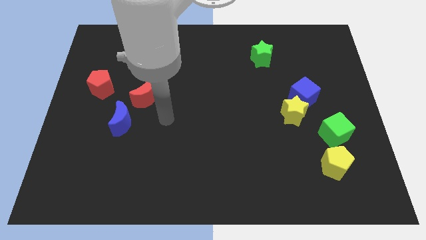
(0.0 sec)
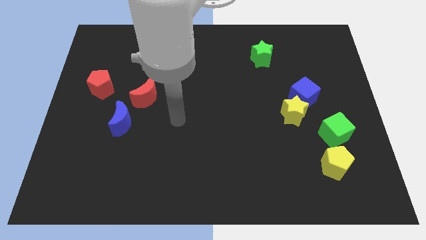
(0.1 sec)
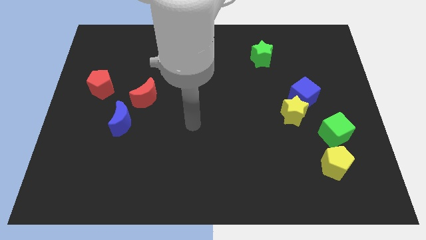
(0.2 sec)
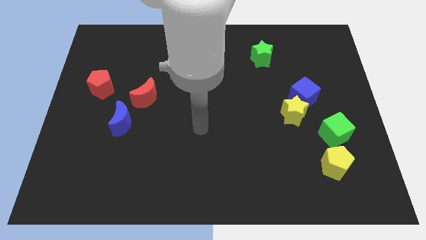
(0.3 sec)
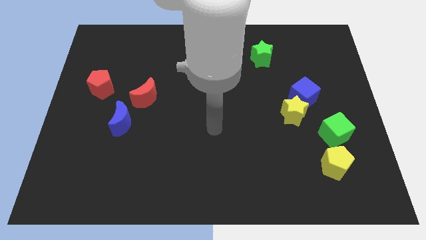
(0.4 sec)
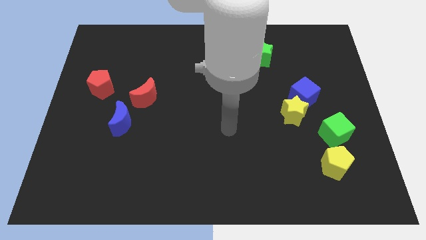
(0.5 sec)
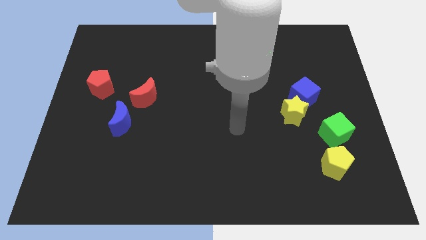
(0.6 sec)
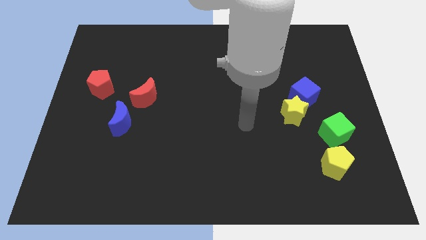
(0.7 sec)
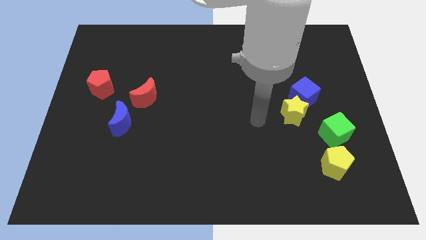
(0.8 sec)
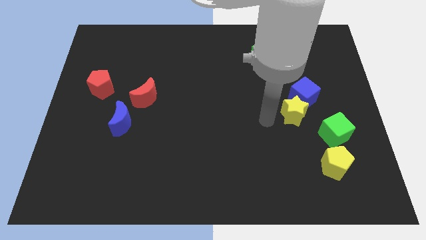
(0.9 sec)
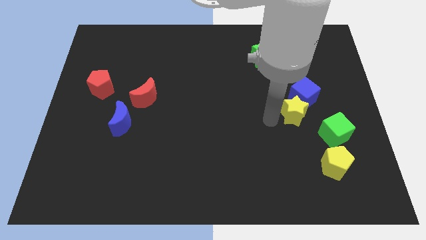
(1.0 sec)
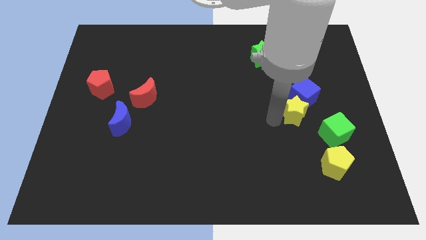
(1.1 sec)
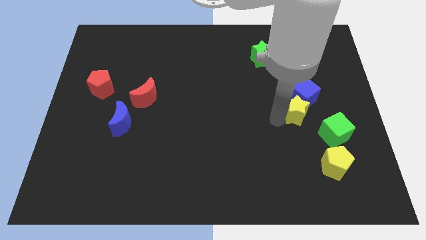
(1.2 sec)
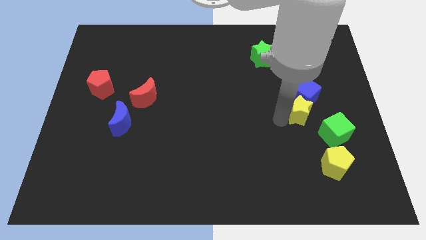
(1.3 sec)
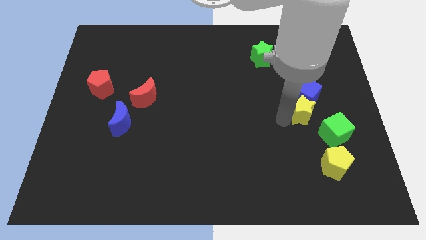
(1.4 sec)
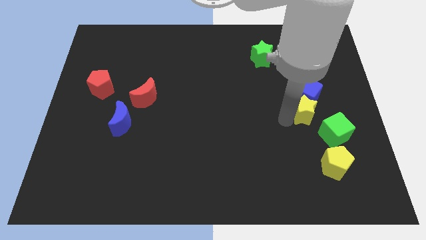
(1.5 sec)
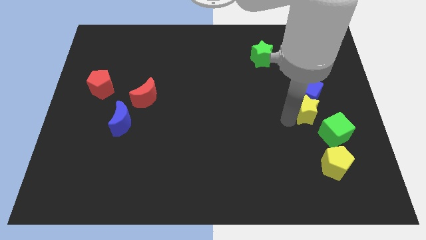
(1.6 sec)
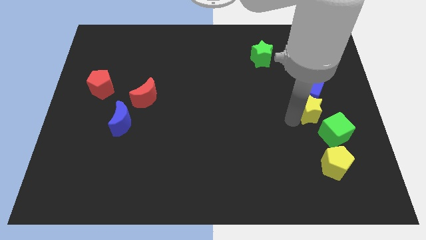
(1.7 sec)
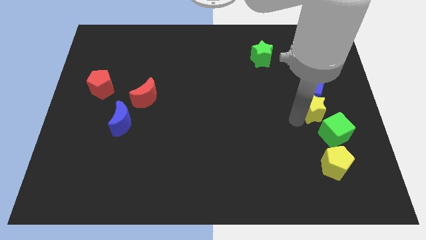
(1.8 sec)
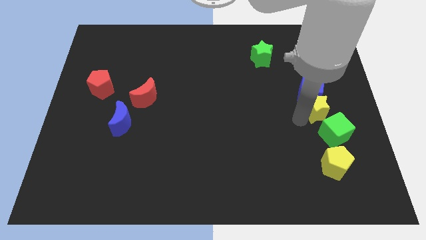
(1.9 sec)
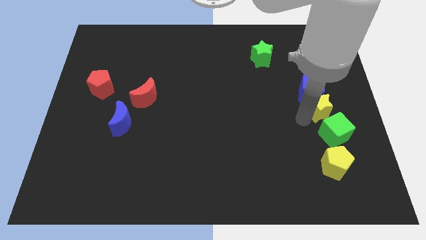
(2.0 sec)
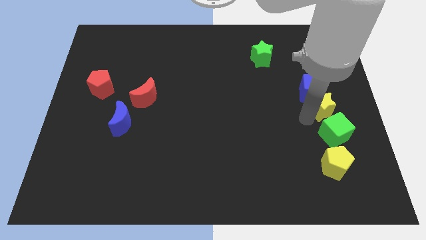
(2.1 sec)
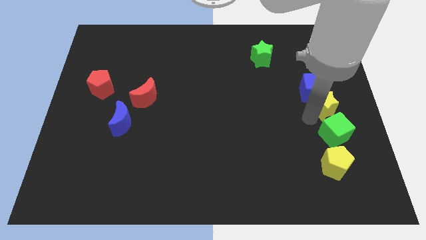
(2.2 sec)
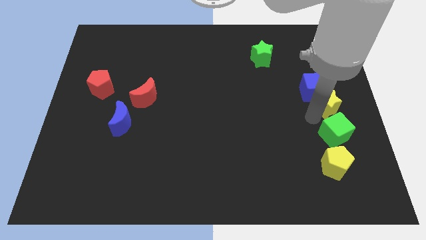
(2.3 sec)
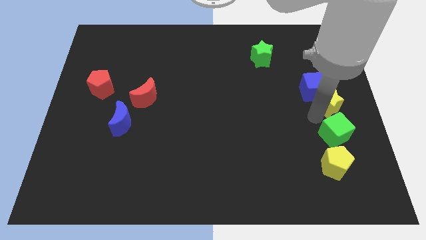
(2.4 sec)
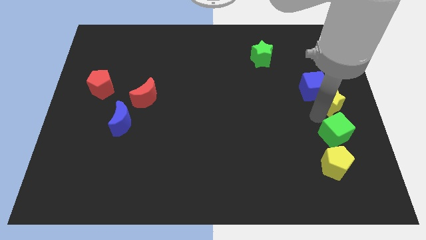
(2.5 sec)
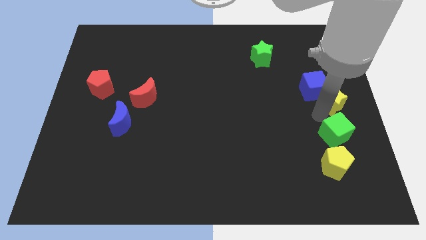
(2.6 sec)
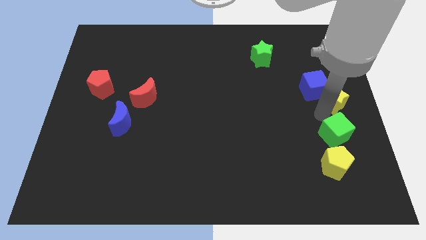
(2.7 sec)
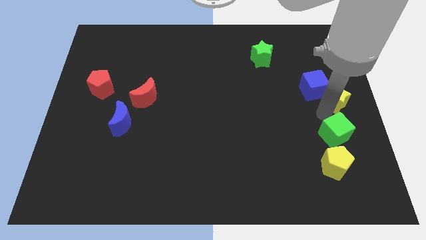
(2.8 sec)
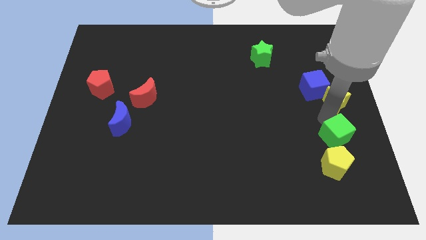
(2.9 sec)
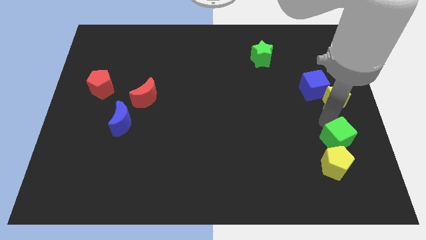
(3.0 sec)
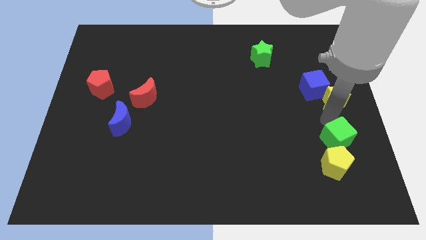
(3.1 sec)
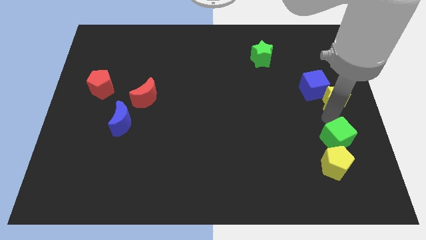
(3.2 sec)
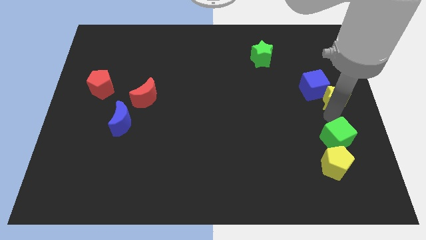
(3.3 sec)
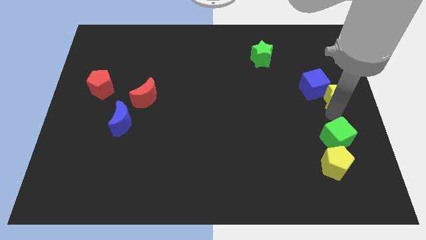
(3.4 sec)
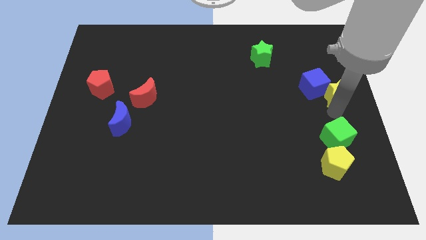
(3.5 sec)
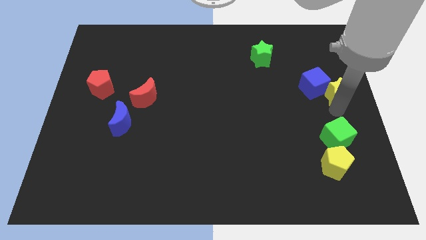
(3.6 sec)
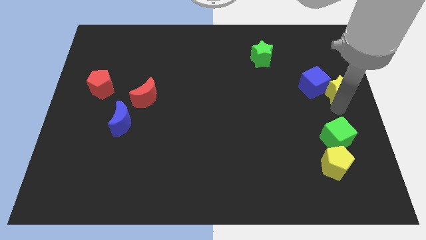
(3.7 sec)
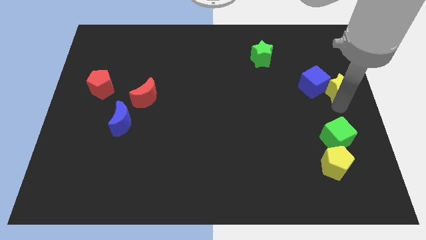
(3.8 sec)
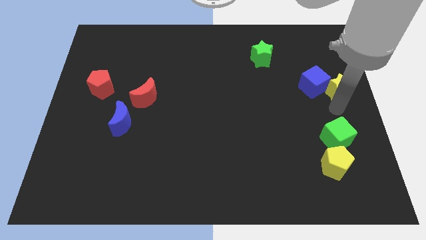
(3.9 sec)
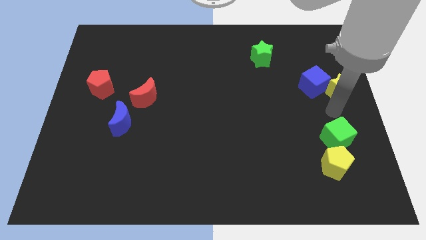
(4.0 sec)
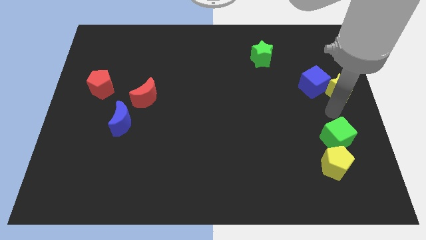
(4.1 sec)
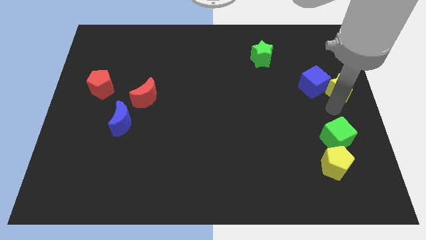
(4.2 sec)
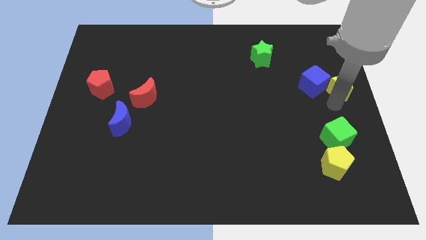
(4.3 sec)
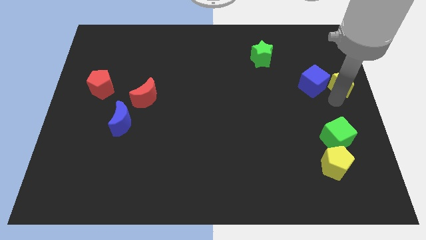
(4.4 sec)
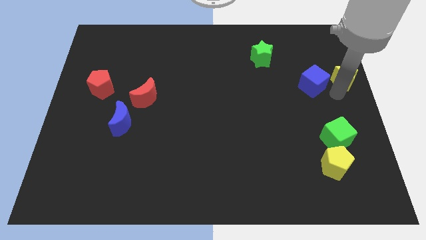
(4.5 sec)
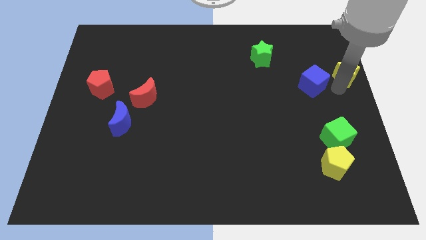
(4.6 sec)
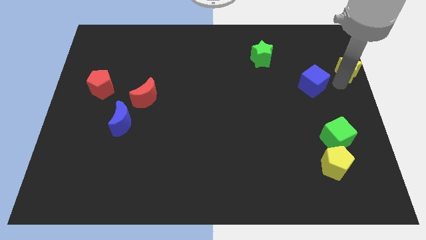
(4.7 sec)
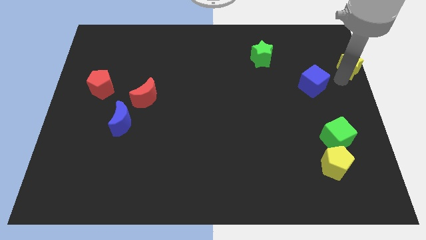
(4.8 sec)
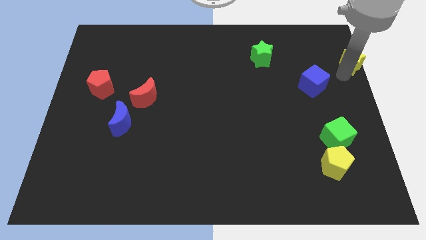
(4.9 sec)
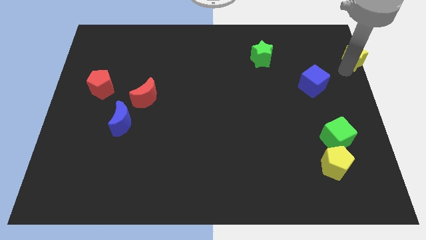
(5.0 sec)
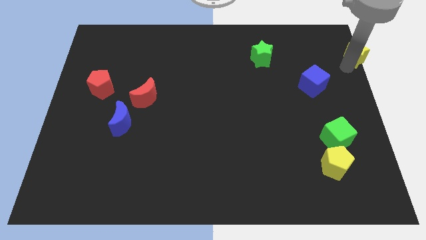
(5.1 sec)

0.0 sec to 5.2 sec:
push the yellow star to the upper right corner

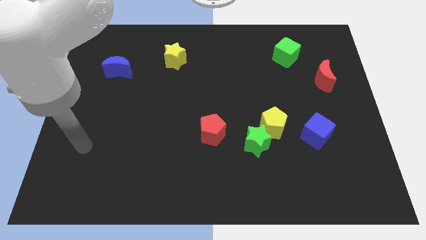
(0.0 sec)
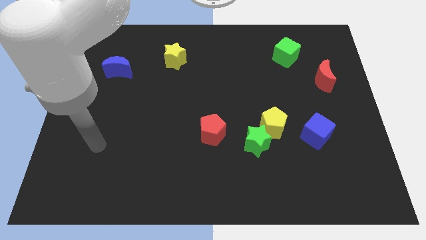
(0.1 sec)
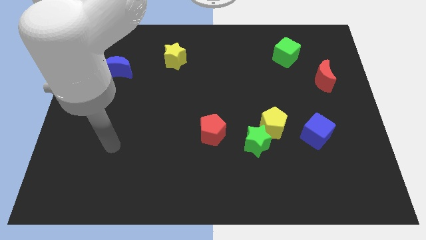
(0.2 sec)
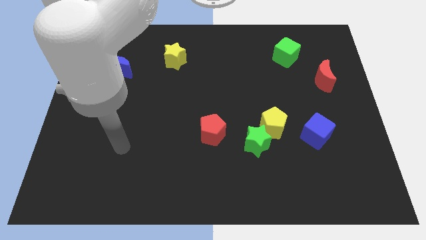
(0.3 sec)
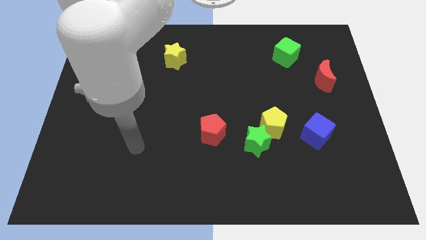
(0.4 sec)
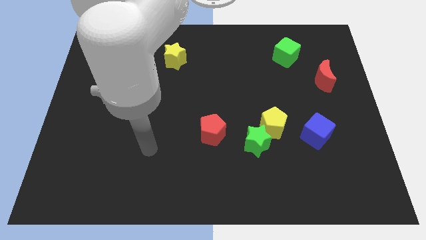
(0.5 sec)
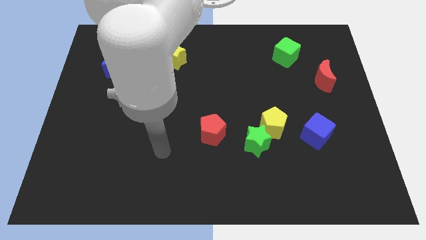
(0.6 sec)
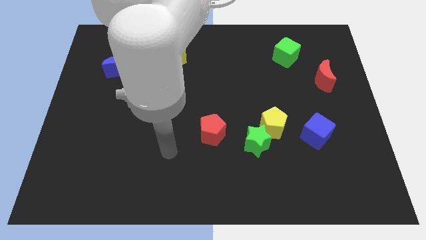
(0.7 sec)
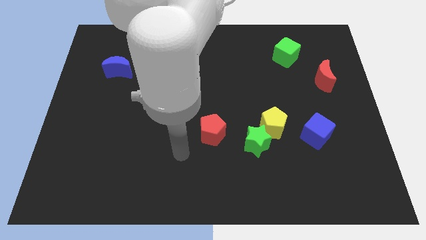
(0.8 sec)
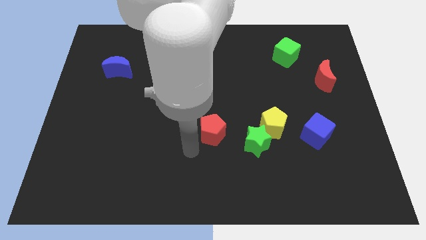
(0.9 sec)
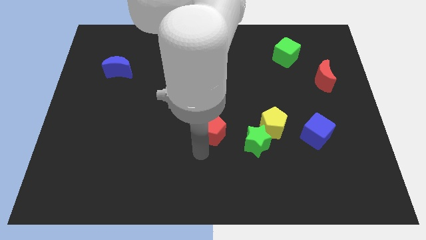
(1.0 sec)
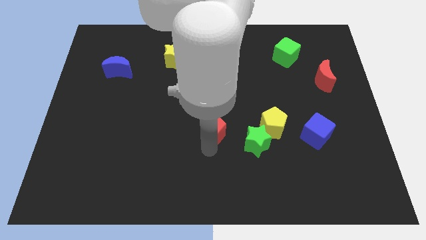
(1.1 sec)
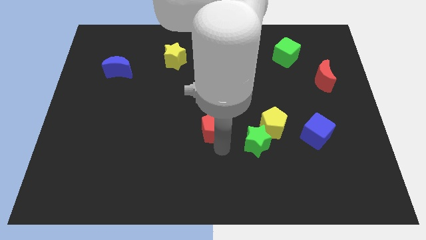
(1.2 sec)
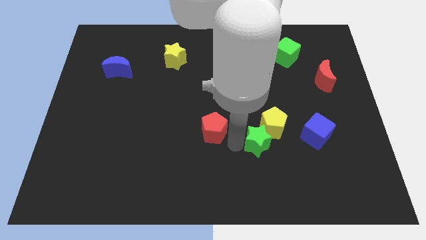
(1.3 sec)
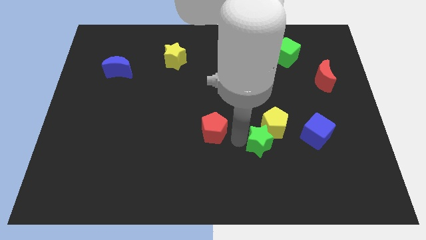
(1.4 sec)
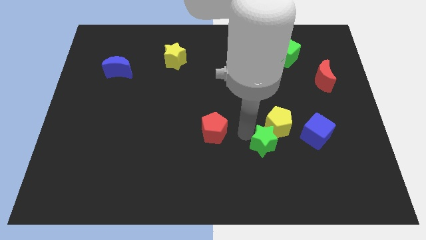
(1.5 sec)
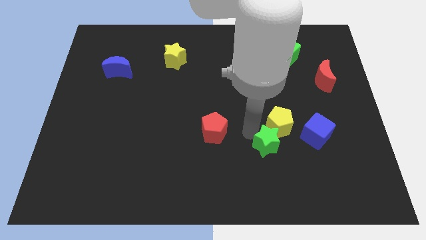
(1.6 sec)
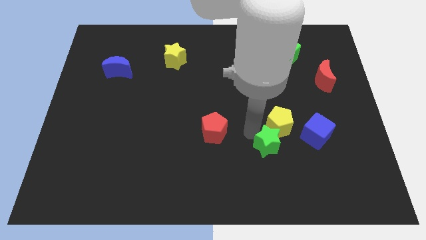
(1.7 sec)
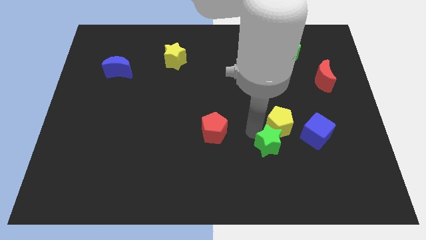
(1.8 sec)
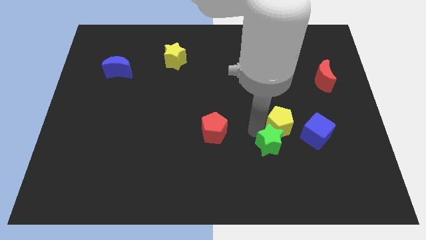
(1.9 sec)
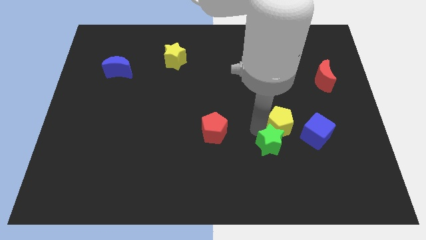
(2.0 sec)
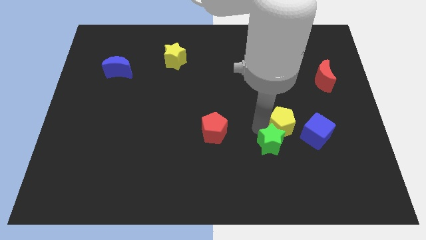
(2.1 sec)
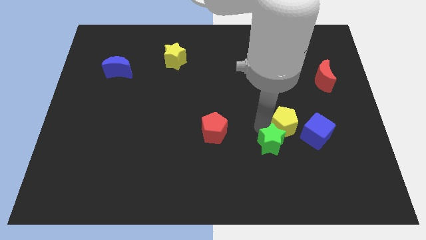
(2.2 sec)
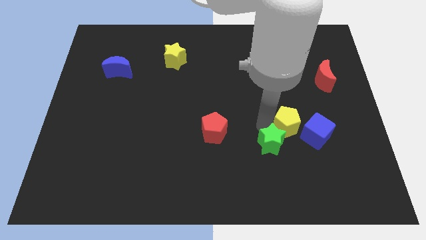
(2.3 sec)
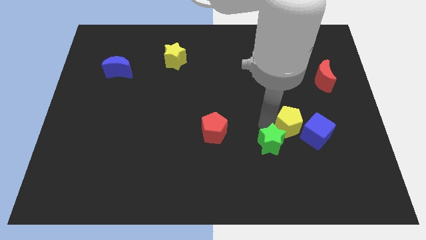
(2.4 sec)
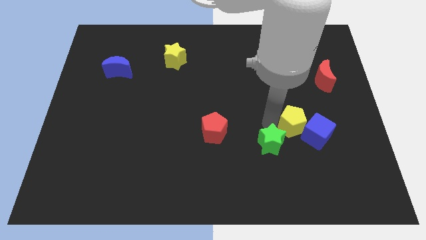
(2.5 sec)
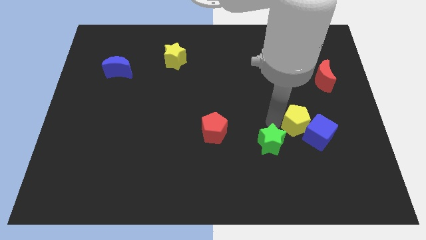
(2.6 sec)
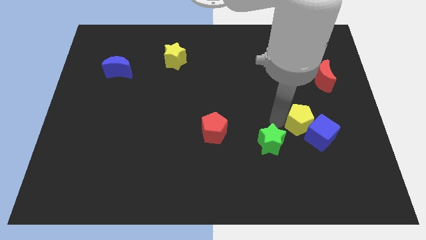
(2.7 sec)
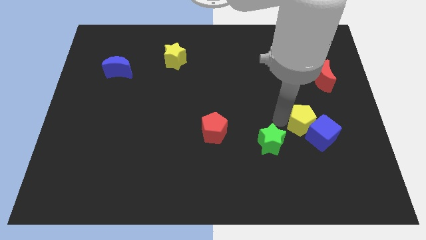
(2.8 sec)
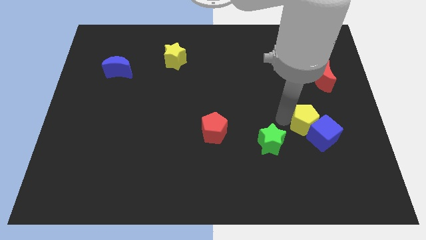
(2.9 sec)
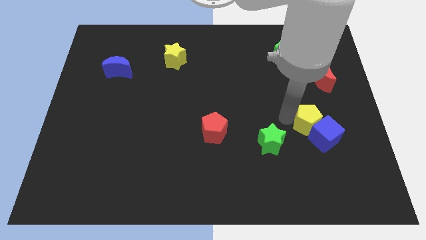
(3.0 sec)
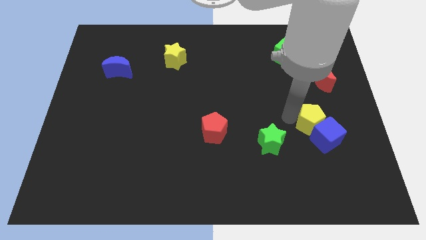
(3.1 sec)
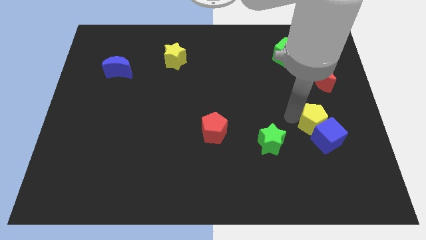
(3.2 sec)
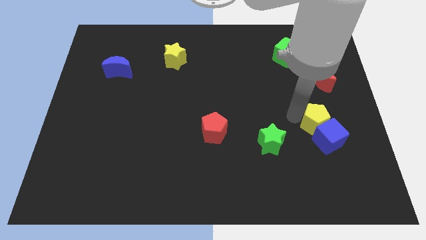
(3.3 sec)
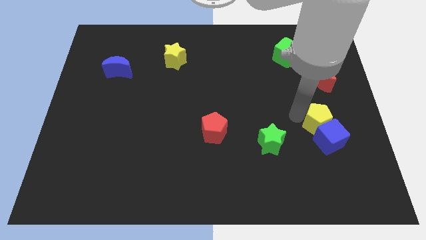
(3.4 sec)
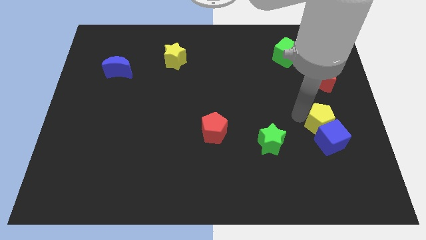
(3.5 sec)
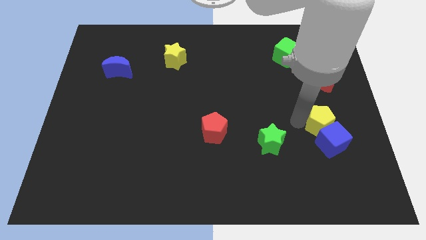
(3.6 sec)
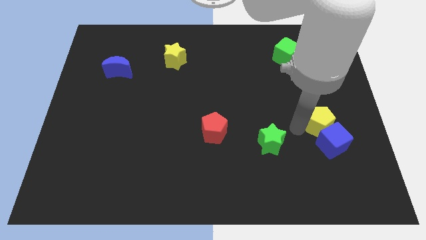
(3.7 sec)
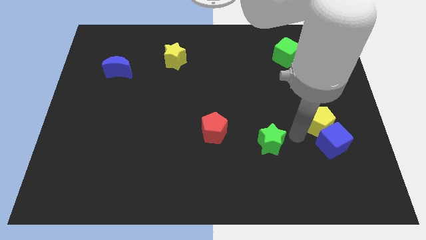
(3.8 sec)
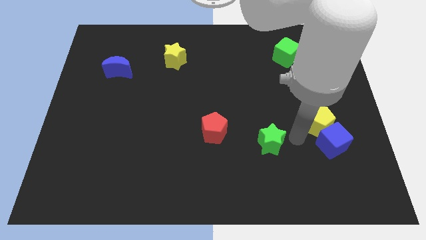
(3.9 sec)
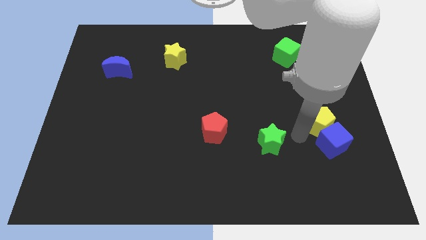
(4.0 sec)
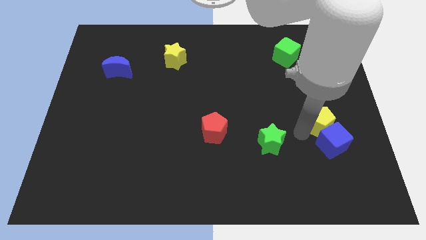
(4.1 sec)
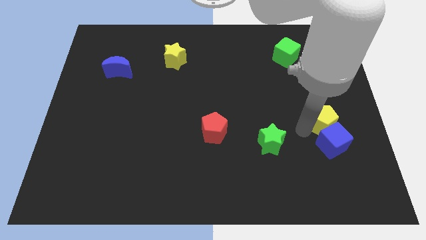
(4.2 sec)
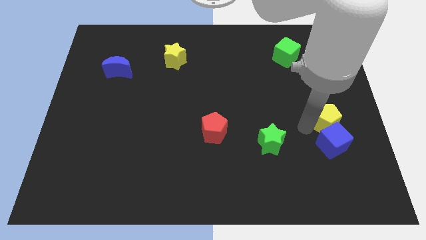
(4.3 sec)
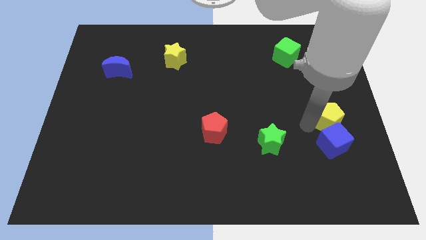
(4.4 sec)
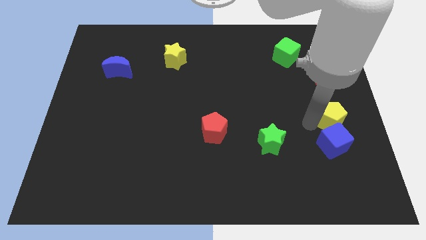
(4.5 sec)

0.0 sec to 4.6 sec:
push the yellow pentagon to the center right
